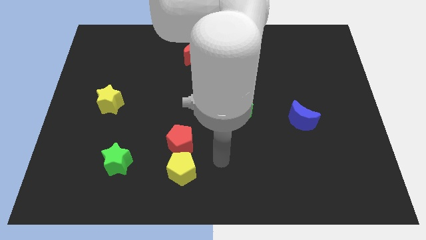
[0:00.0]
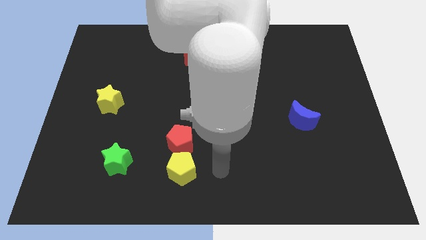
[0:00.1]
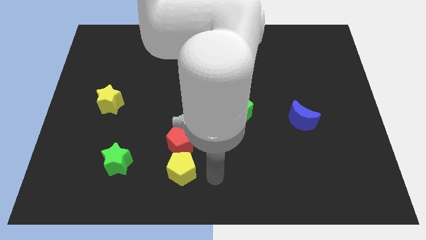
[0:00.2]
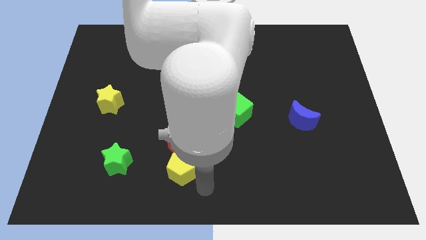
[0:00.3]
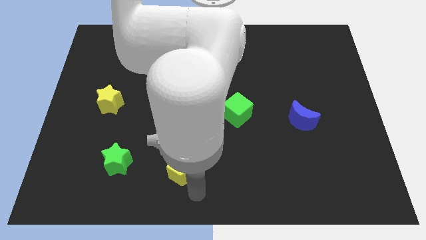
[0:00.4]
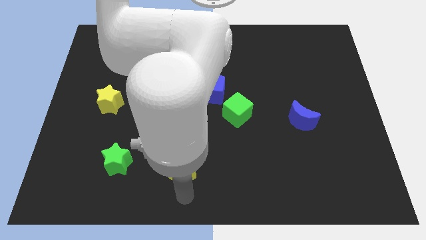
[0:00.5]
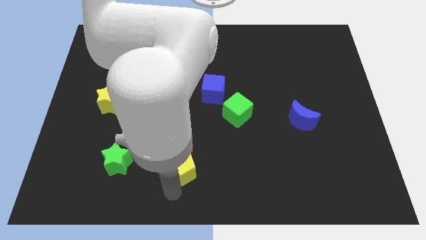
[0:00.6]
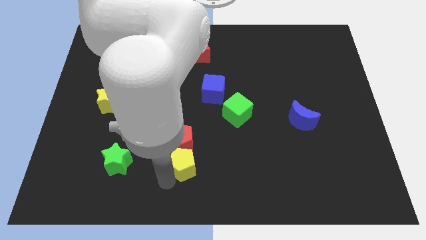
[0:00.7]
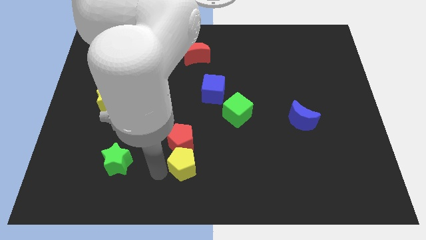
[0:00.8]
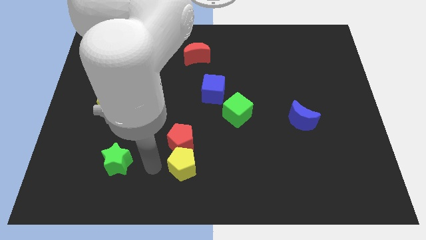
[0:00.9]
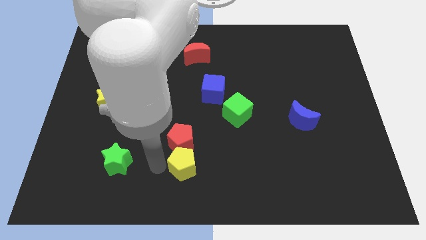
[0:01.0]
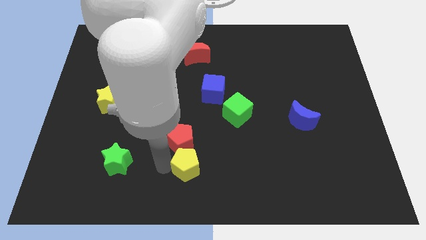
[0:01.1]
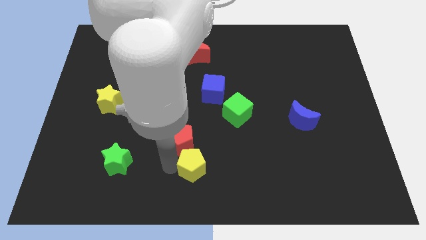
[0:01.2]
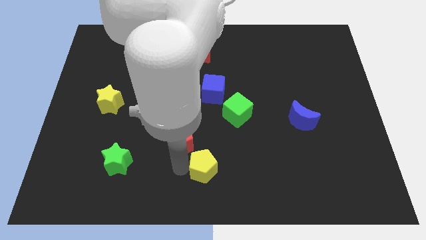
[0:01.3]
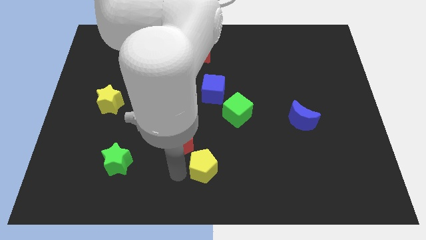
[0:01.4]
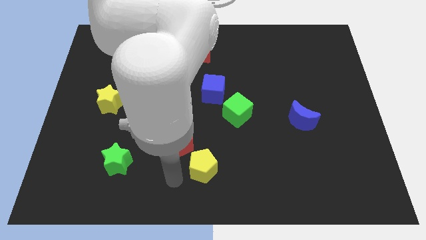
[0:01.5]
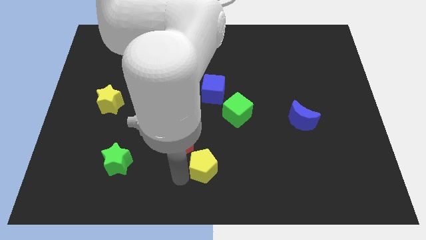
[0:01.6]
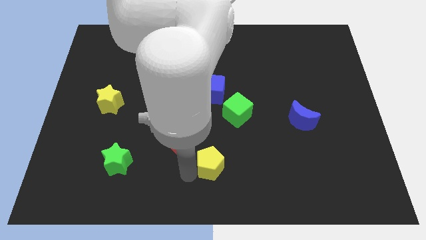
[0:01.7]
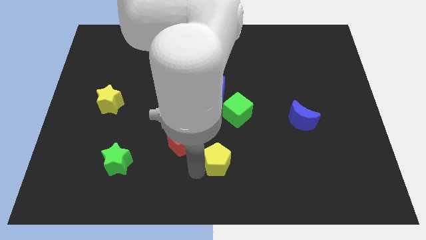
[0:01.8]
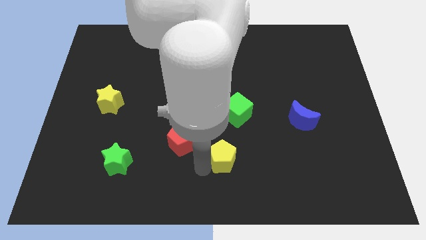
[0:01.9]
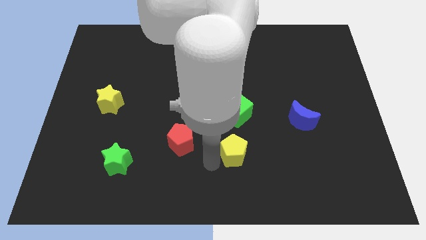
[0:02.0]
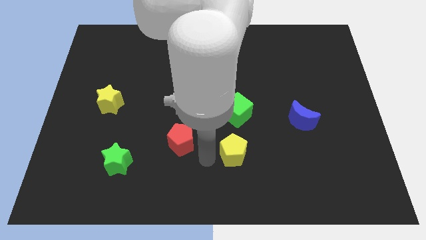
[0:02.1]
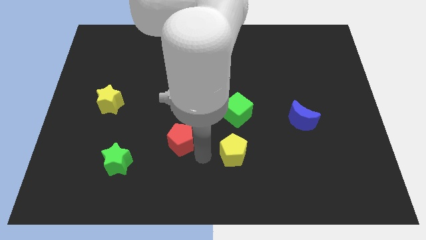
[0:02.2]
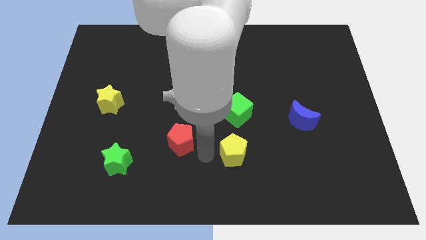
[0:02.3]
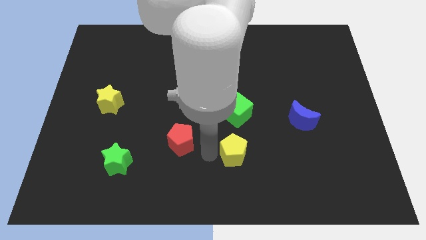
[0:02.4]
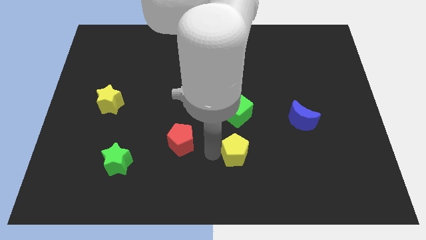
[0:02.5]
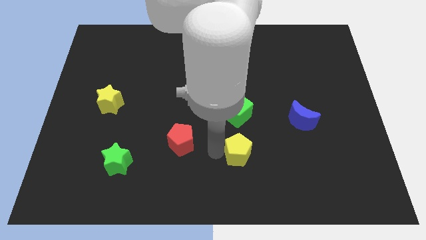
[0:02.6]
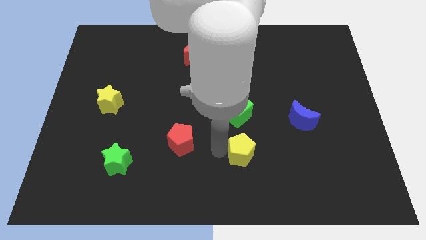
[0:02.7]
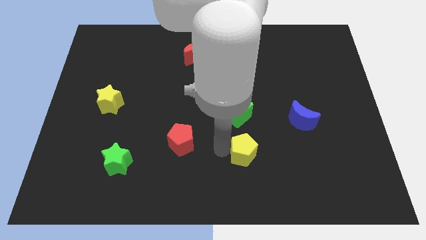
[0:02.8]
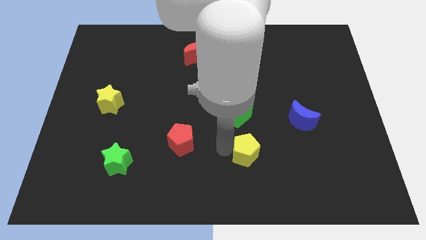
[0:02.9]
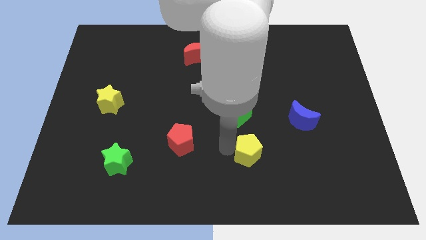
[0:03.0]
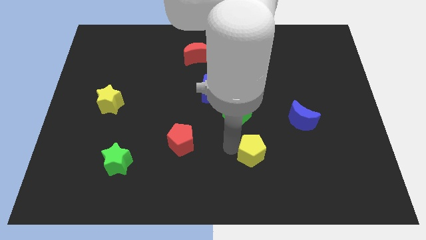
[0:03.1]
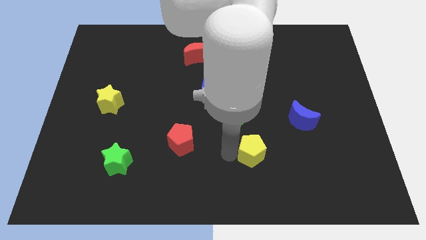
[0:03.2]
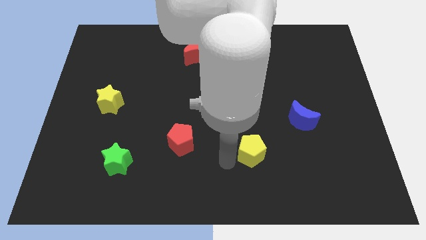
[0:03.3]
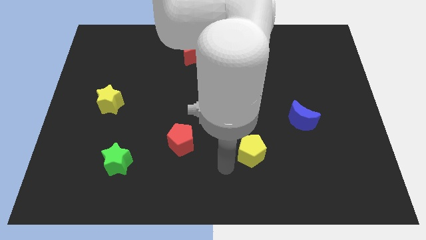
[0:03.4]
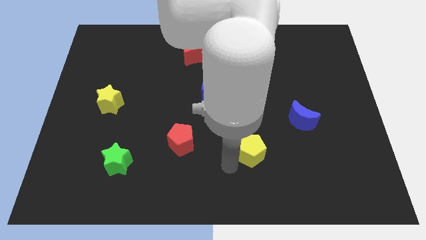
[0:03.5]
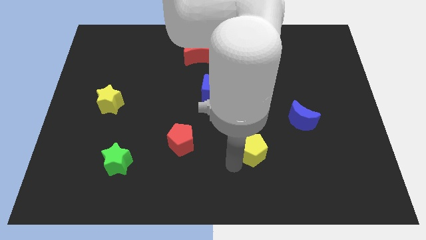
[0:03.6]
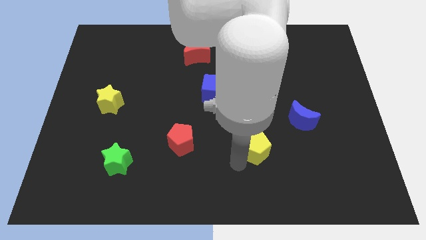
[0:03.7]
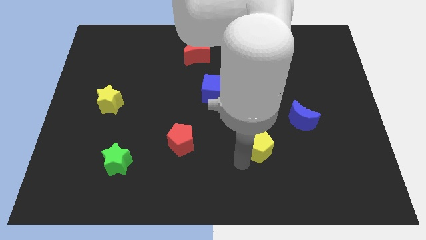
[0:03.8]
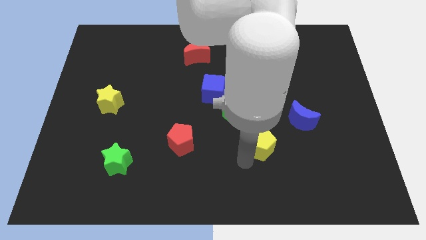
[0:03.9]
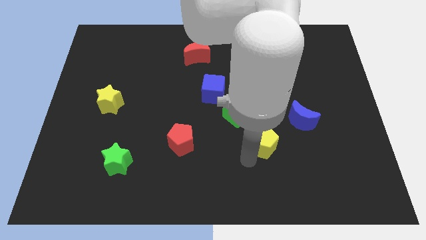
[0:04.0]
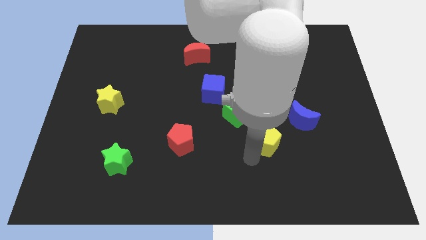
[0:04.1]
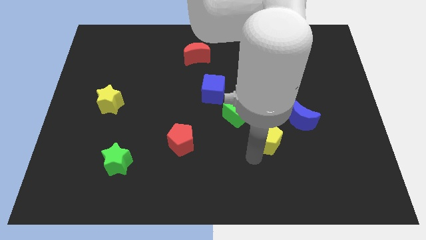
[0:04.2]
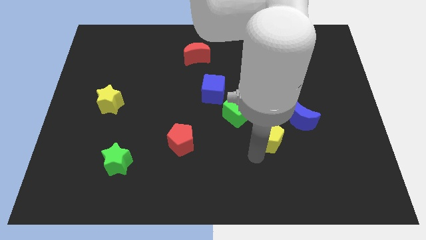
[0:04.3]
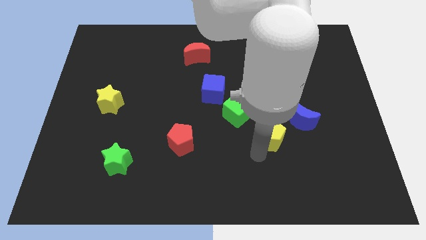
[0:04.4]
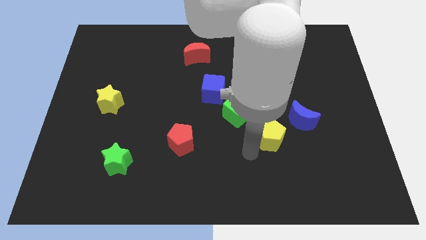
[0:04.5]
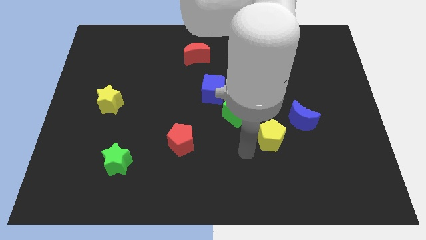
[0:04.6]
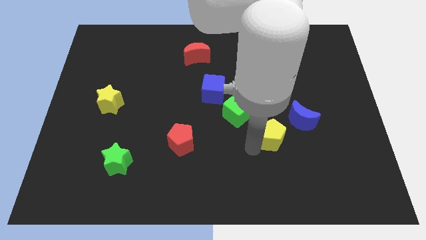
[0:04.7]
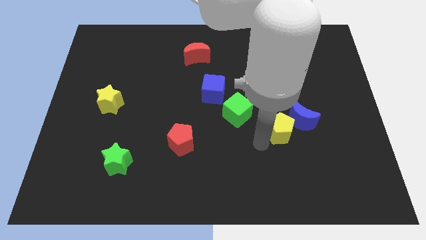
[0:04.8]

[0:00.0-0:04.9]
put the yellow pentagon close to the blue moon

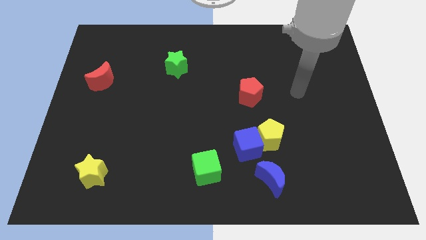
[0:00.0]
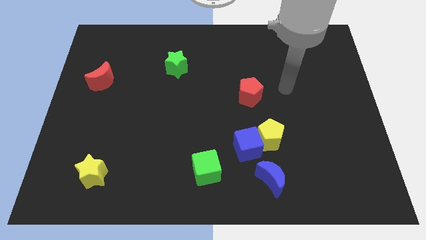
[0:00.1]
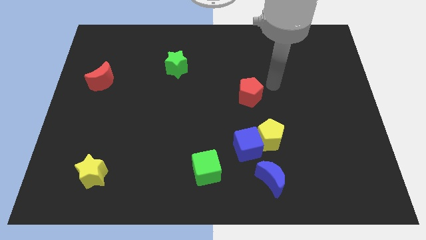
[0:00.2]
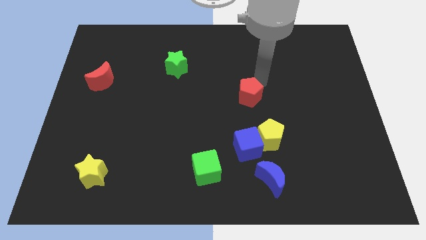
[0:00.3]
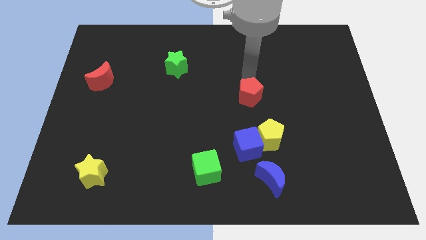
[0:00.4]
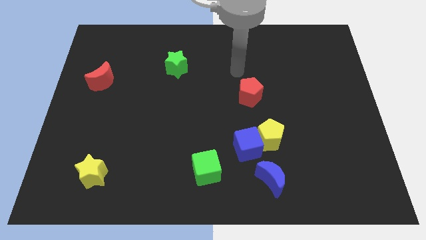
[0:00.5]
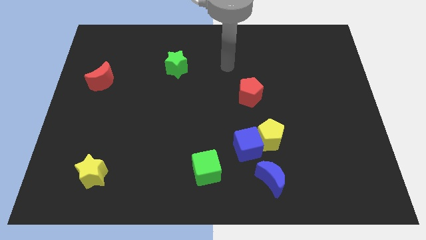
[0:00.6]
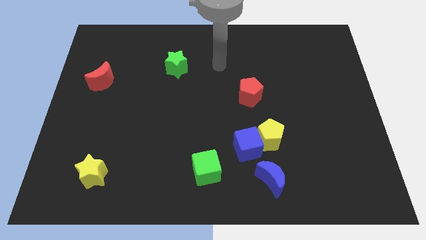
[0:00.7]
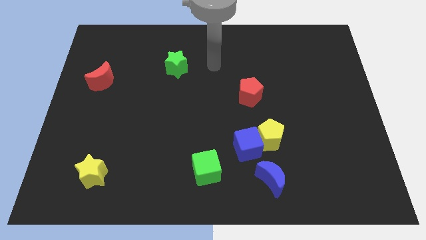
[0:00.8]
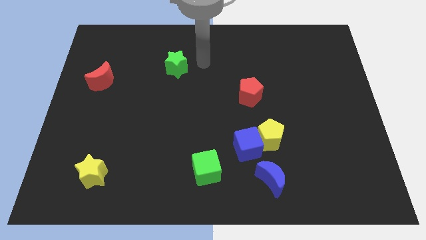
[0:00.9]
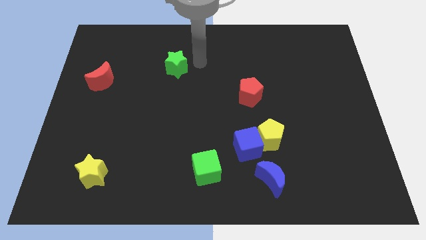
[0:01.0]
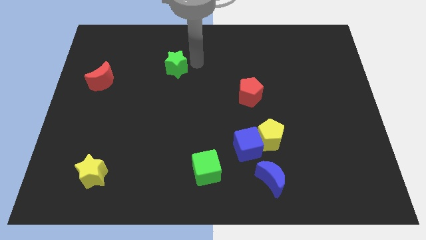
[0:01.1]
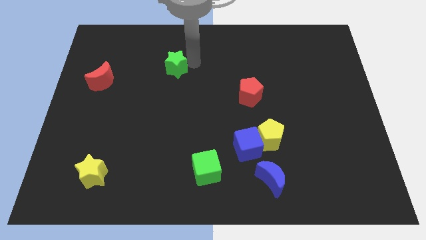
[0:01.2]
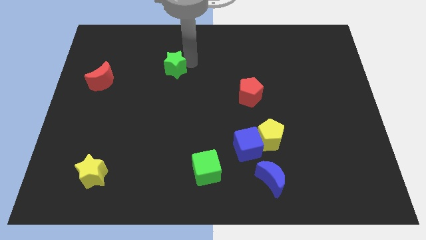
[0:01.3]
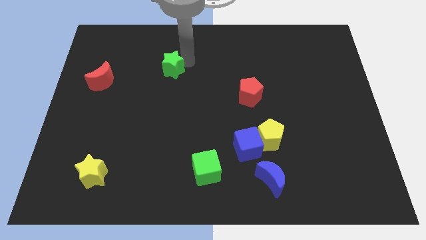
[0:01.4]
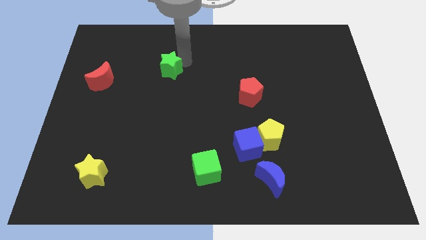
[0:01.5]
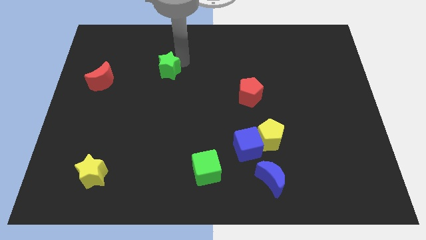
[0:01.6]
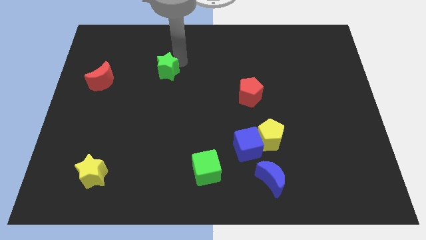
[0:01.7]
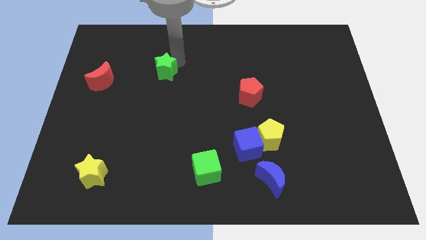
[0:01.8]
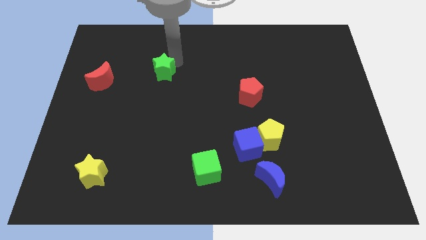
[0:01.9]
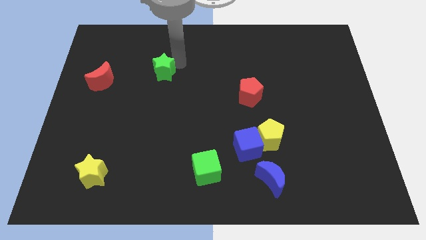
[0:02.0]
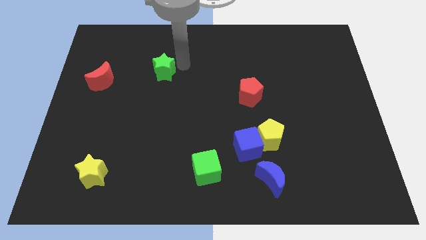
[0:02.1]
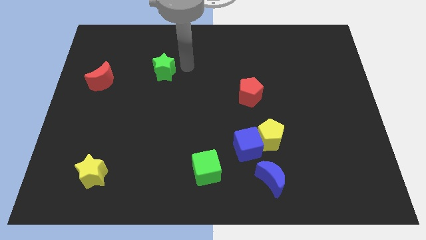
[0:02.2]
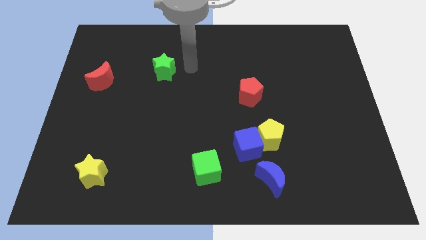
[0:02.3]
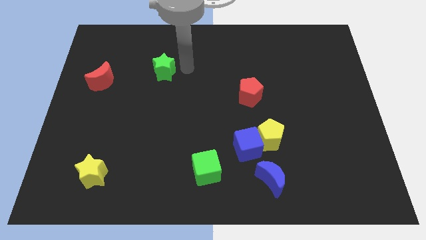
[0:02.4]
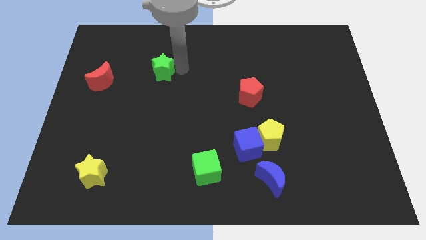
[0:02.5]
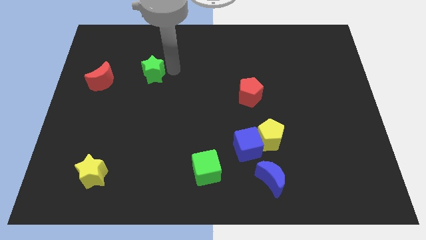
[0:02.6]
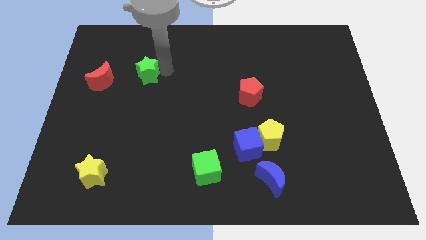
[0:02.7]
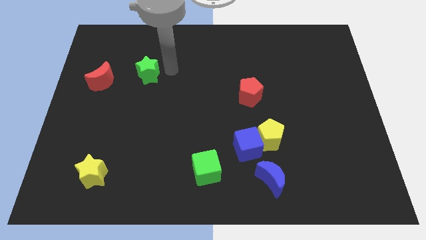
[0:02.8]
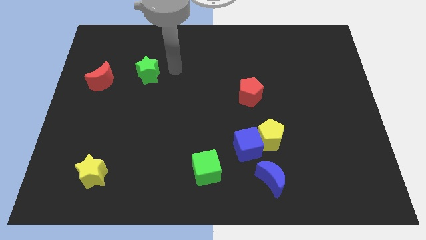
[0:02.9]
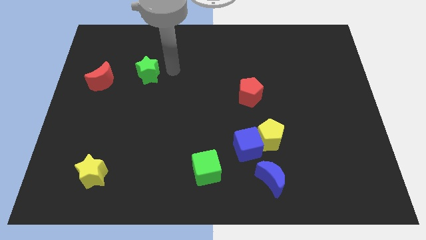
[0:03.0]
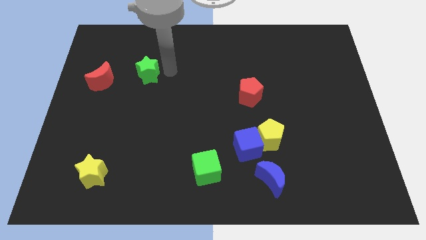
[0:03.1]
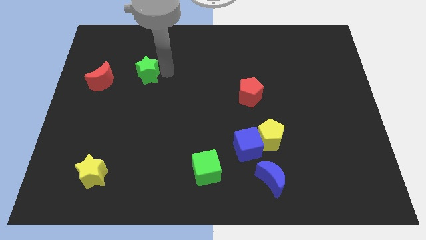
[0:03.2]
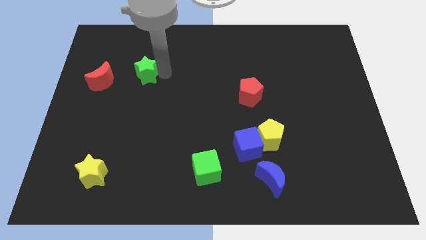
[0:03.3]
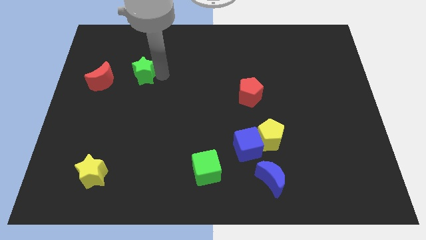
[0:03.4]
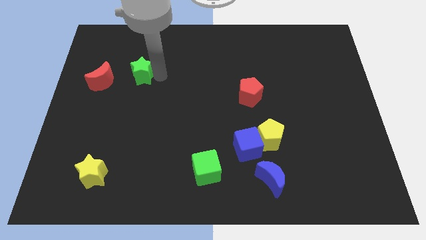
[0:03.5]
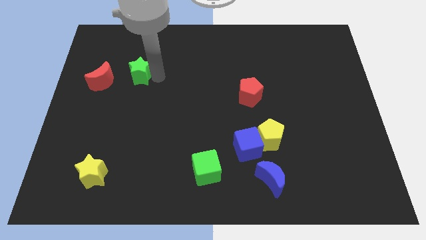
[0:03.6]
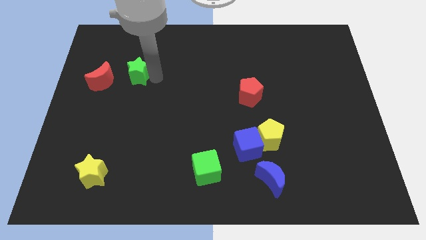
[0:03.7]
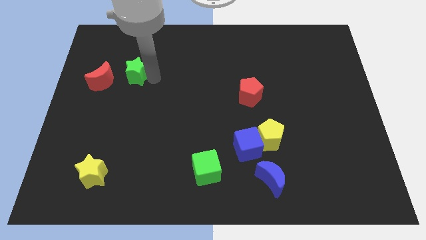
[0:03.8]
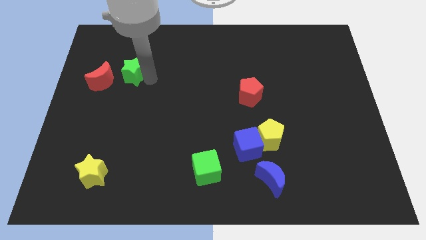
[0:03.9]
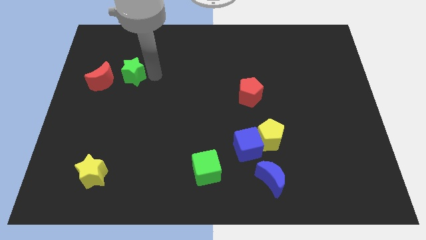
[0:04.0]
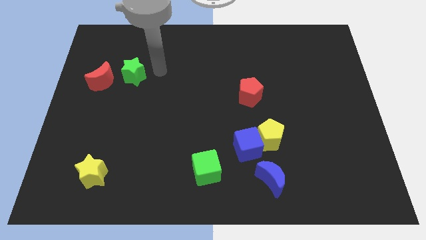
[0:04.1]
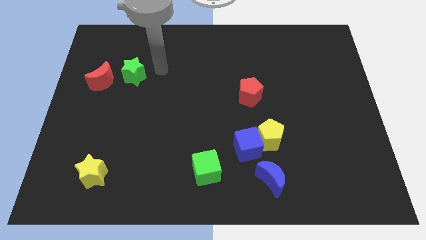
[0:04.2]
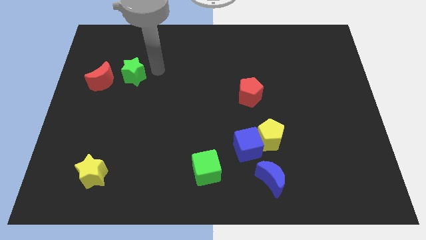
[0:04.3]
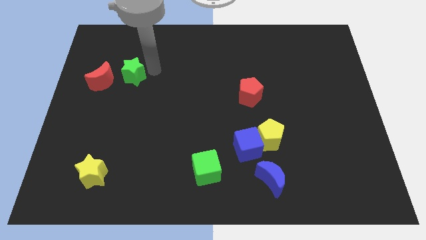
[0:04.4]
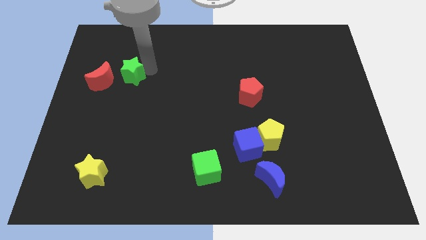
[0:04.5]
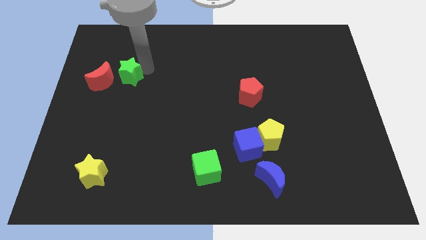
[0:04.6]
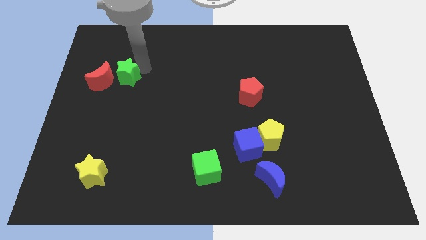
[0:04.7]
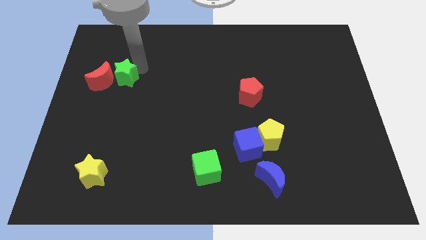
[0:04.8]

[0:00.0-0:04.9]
put the green star next to the red moon
